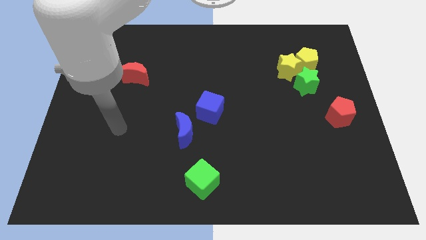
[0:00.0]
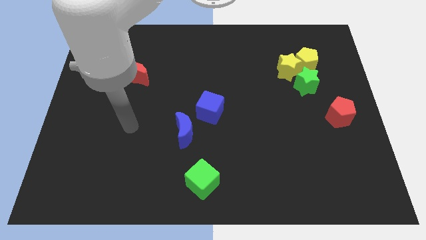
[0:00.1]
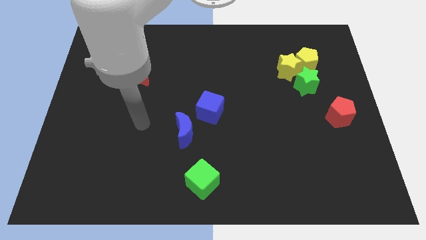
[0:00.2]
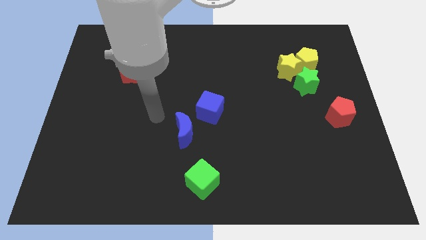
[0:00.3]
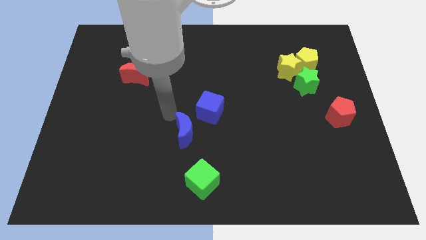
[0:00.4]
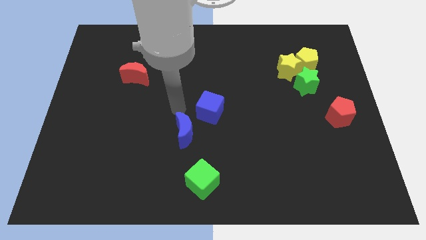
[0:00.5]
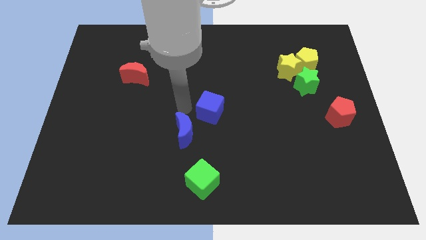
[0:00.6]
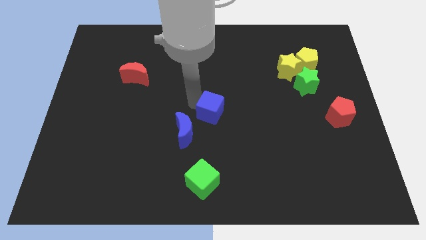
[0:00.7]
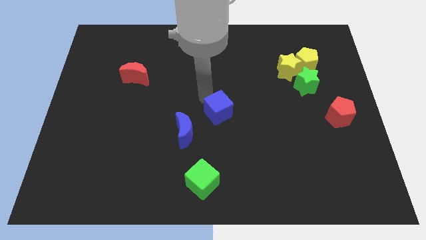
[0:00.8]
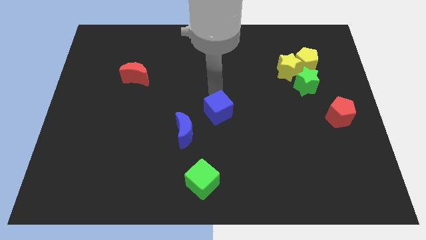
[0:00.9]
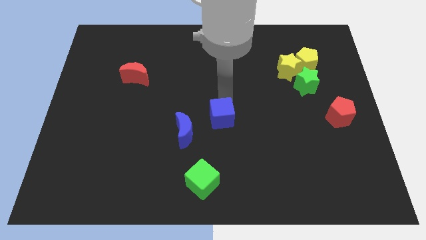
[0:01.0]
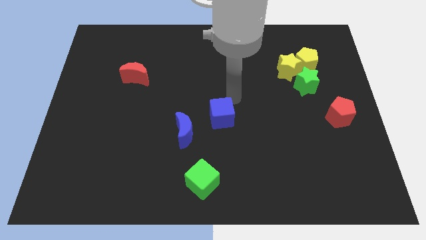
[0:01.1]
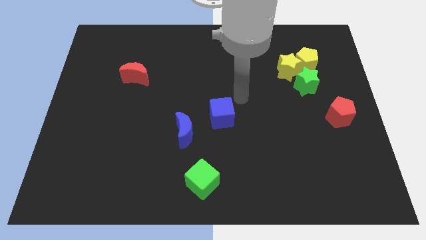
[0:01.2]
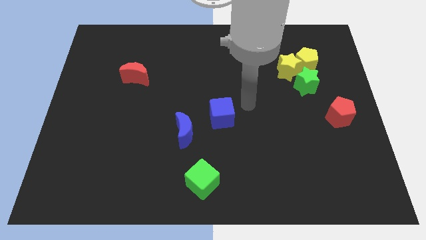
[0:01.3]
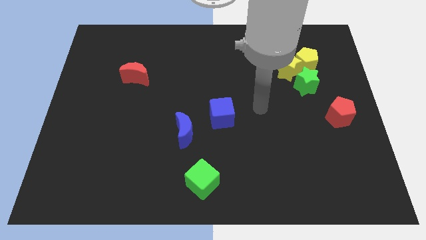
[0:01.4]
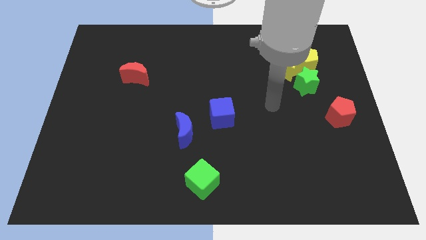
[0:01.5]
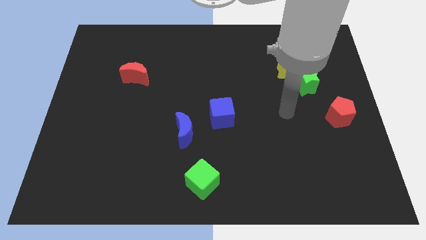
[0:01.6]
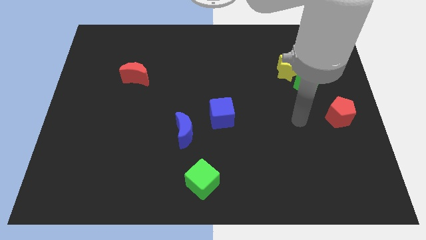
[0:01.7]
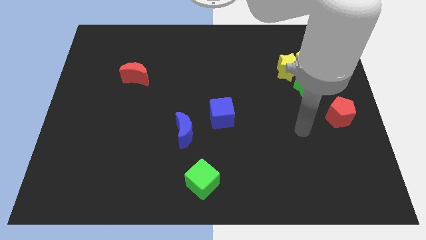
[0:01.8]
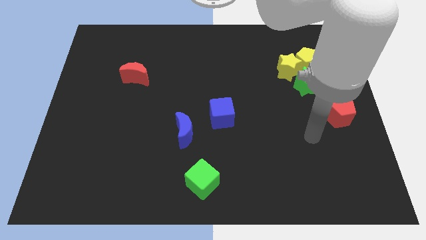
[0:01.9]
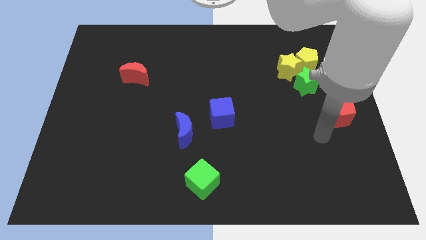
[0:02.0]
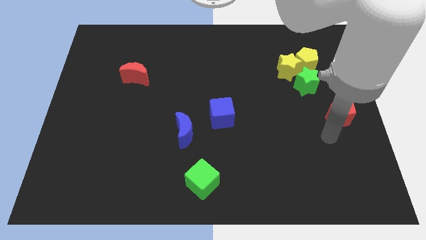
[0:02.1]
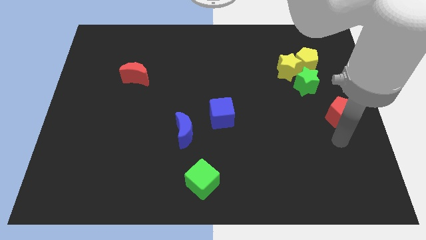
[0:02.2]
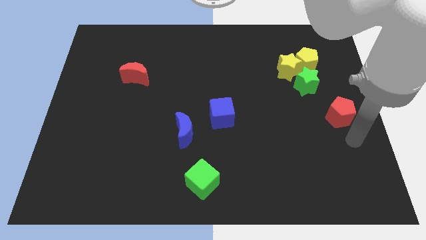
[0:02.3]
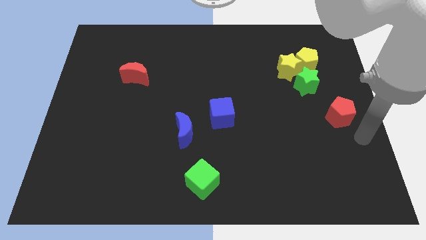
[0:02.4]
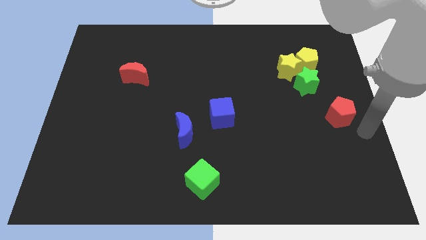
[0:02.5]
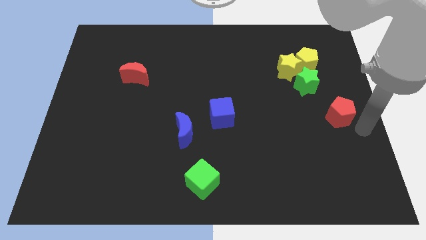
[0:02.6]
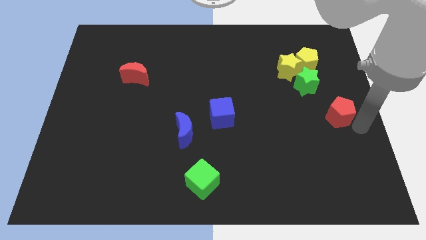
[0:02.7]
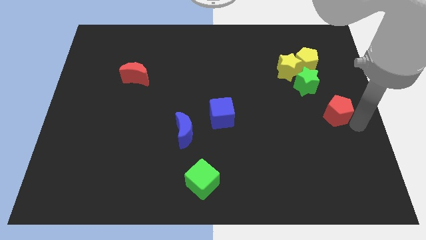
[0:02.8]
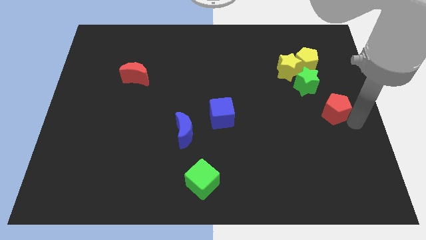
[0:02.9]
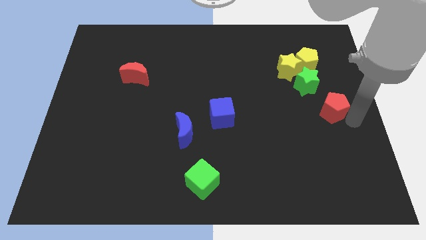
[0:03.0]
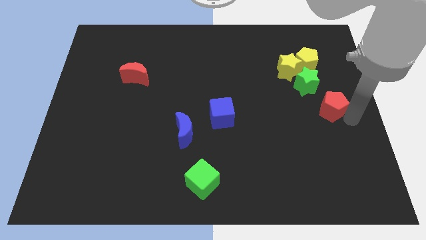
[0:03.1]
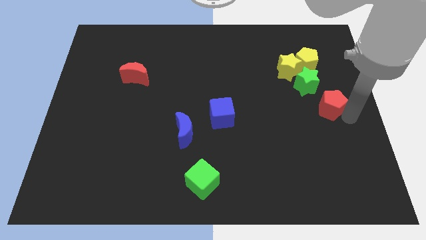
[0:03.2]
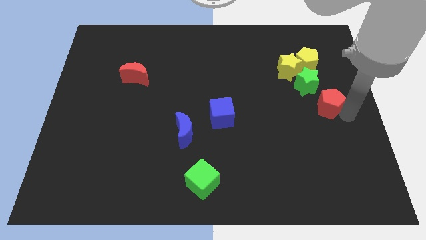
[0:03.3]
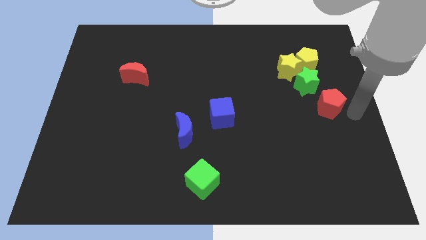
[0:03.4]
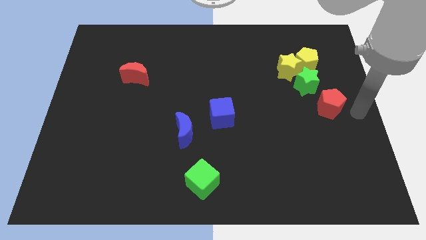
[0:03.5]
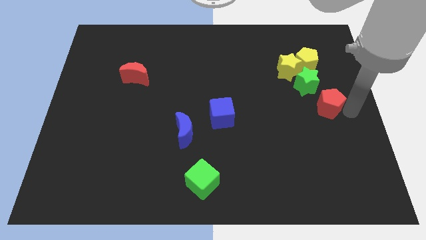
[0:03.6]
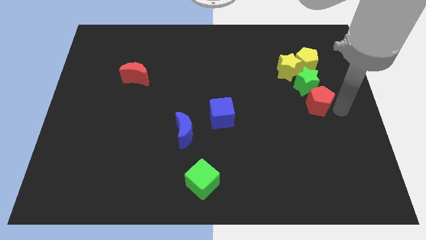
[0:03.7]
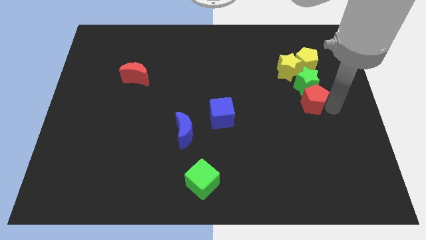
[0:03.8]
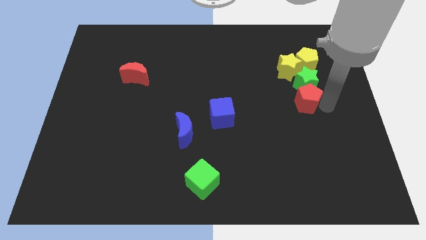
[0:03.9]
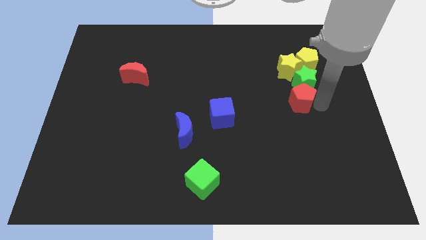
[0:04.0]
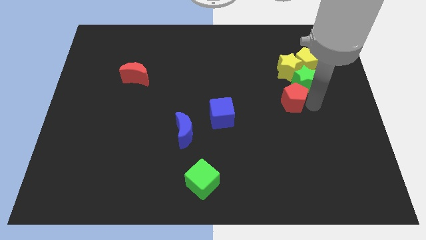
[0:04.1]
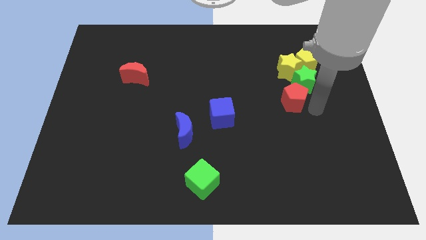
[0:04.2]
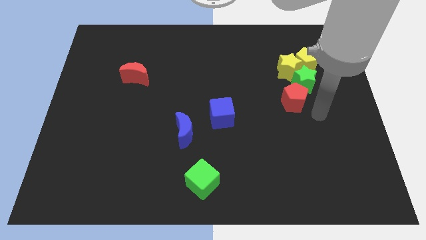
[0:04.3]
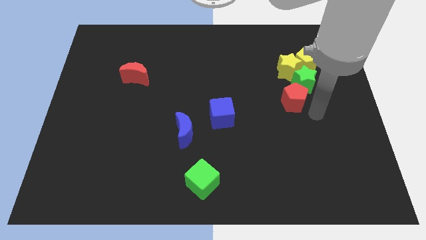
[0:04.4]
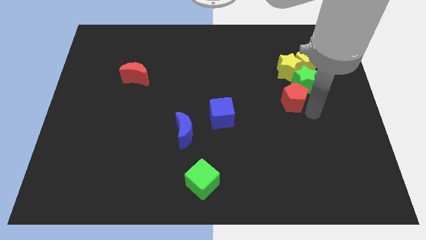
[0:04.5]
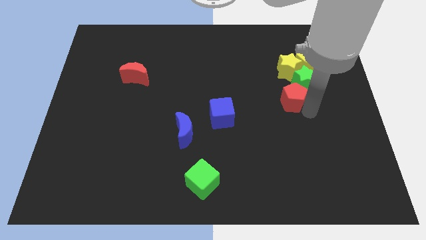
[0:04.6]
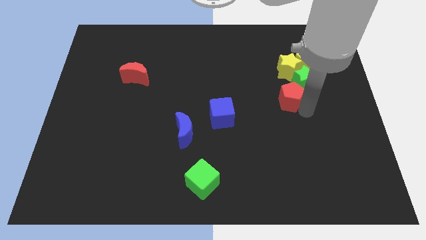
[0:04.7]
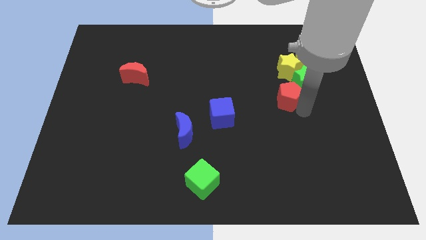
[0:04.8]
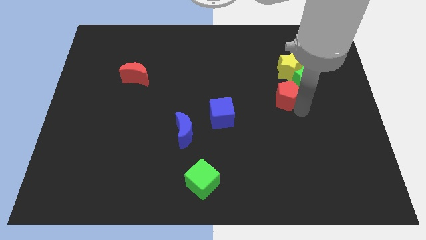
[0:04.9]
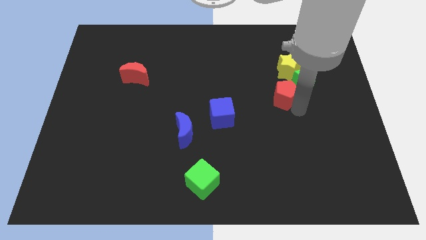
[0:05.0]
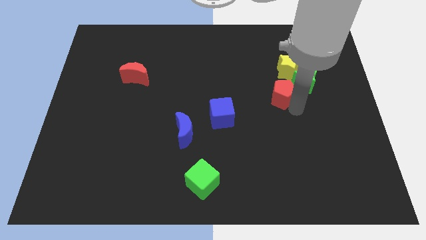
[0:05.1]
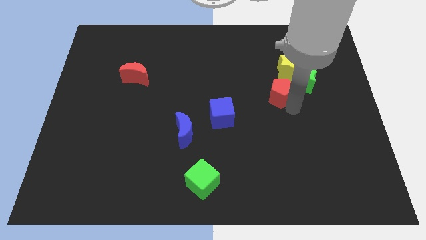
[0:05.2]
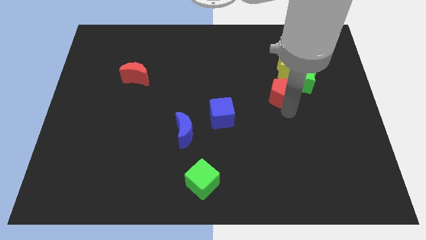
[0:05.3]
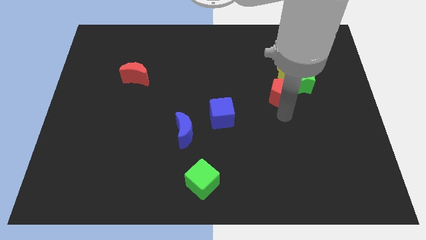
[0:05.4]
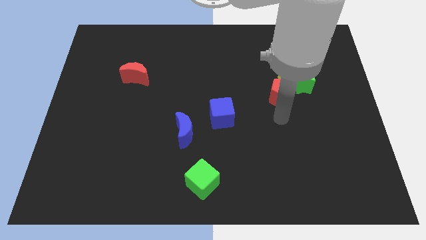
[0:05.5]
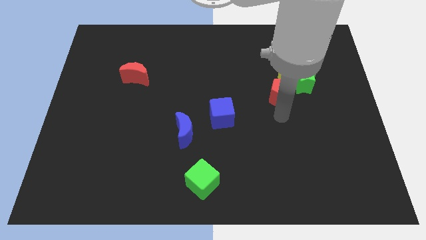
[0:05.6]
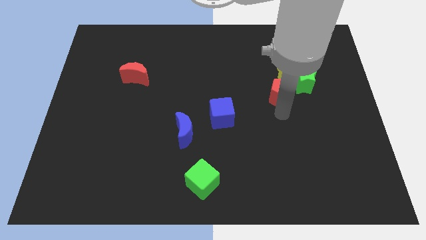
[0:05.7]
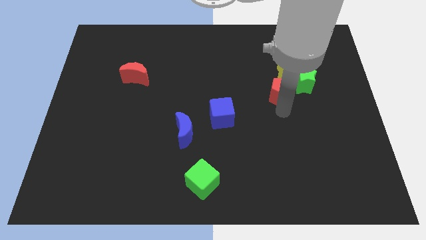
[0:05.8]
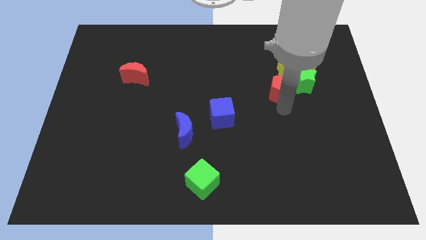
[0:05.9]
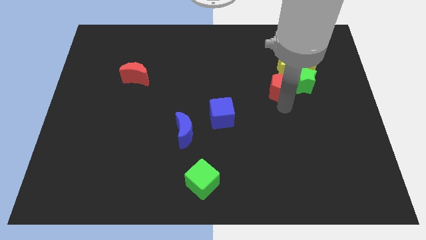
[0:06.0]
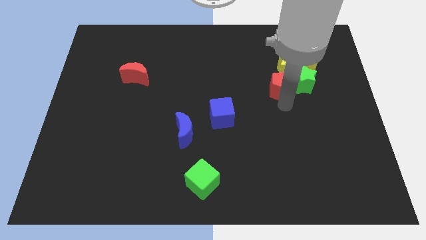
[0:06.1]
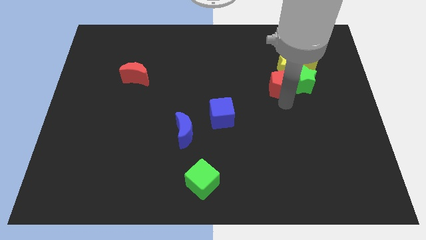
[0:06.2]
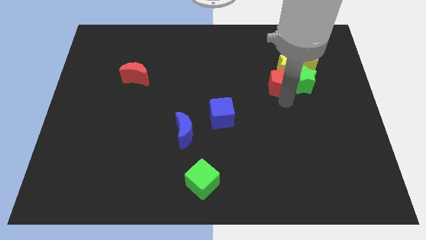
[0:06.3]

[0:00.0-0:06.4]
move the red pentagon next to the yellow star
